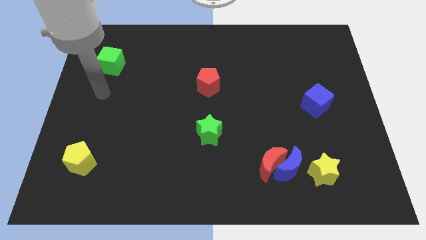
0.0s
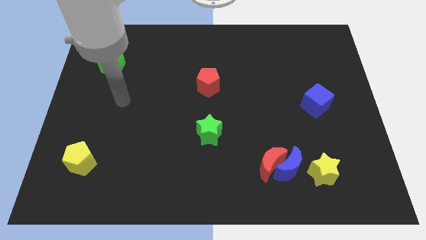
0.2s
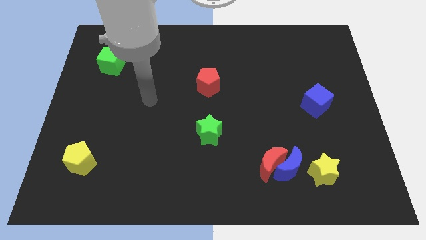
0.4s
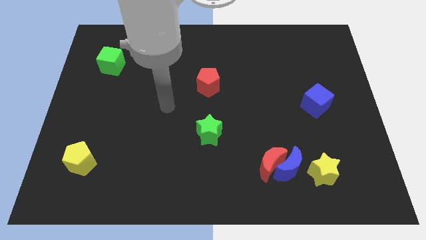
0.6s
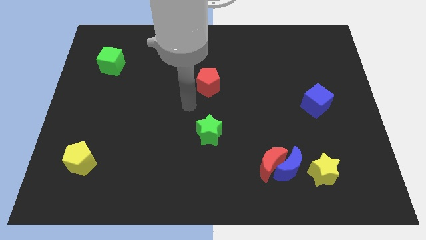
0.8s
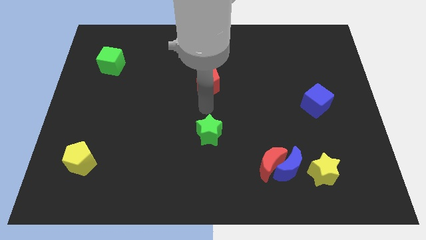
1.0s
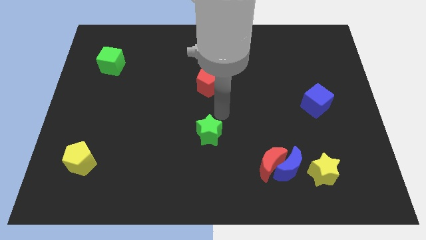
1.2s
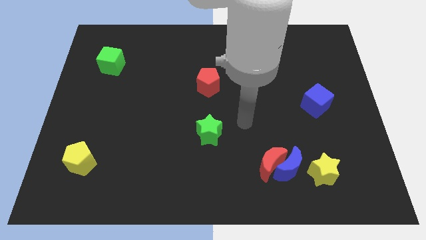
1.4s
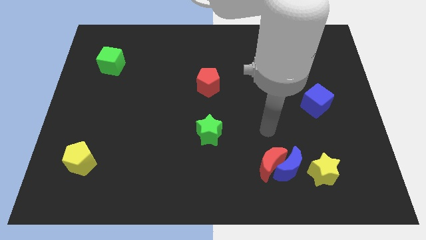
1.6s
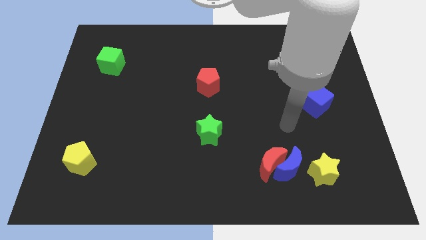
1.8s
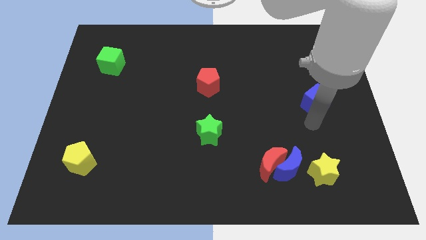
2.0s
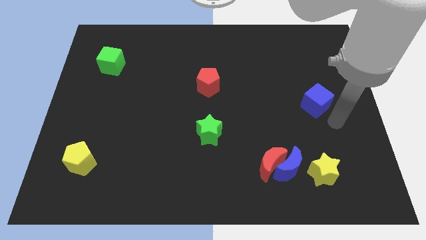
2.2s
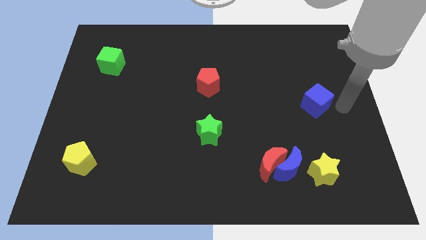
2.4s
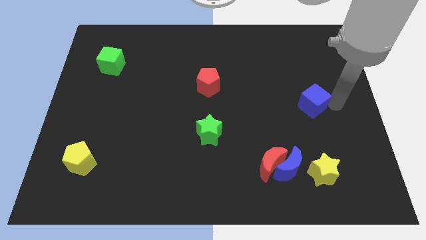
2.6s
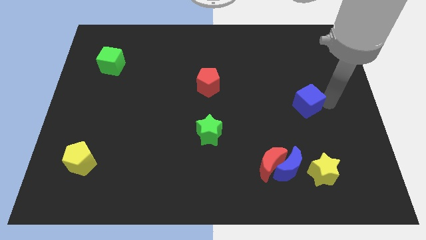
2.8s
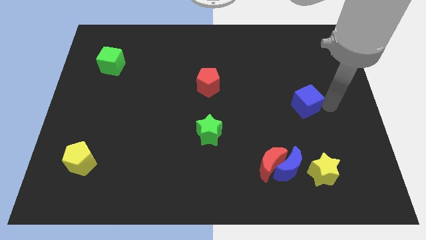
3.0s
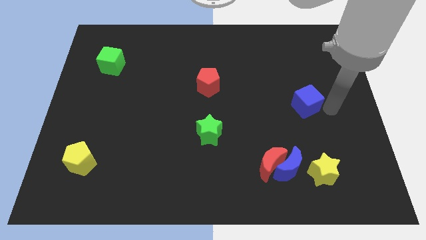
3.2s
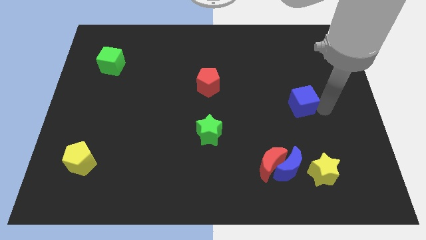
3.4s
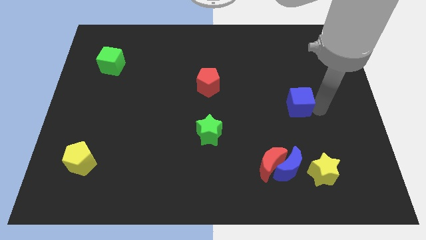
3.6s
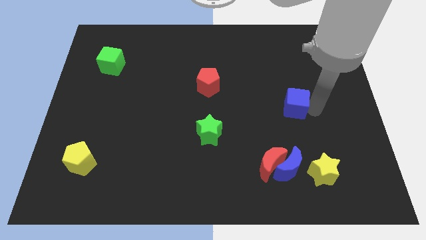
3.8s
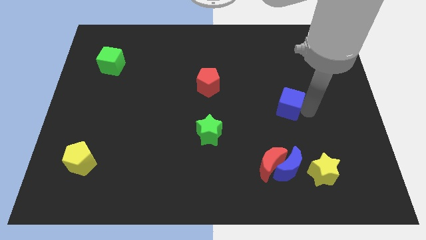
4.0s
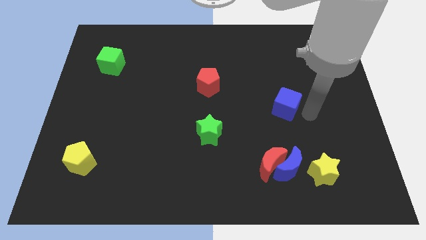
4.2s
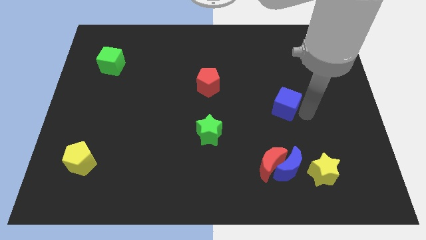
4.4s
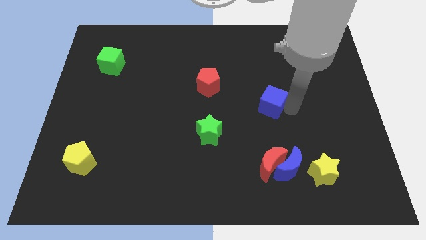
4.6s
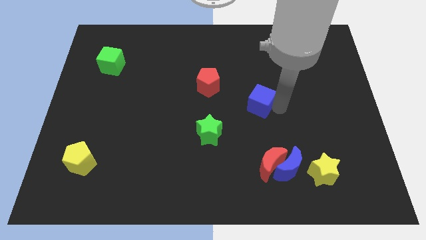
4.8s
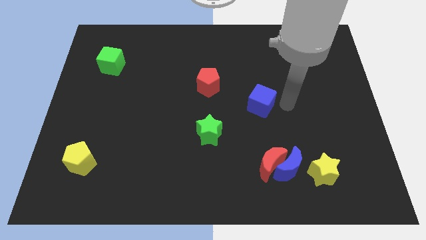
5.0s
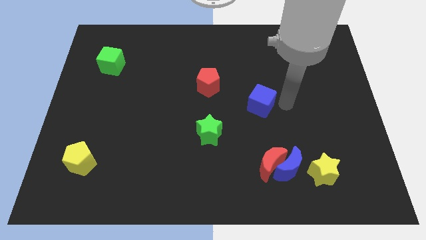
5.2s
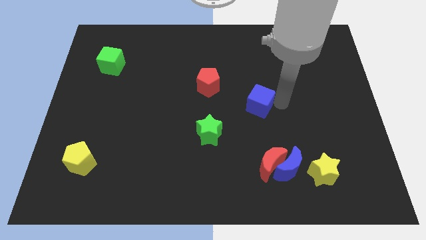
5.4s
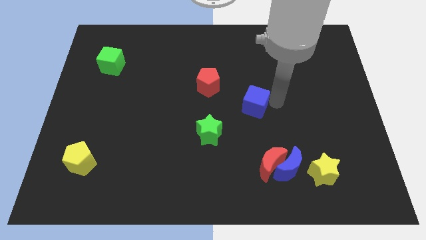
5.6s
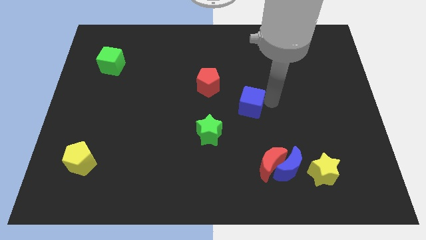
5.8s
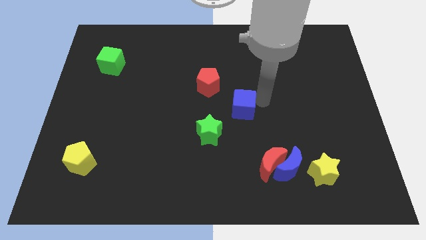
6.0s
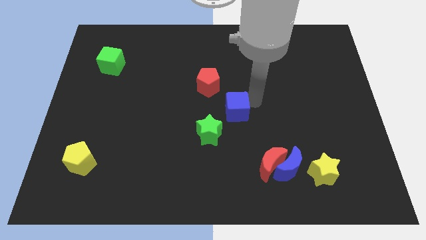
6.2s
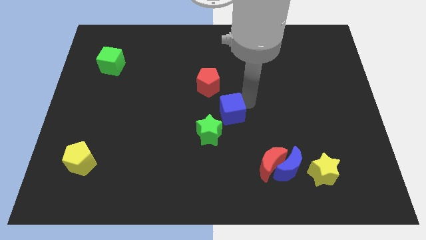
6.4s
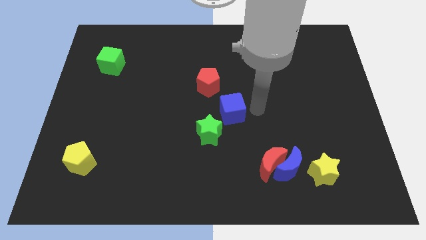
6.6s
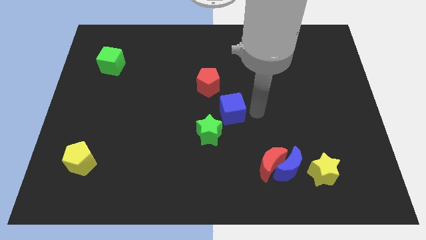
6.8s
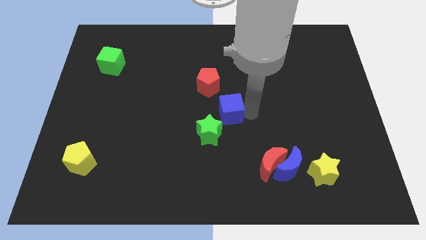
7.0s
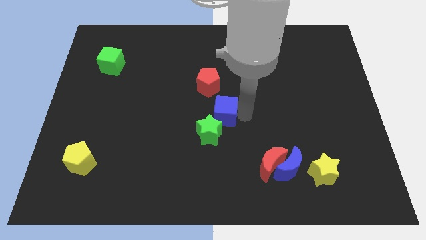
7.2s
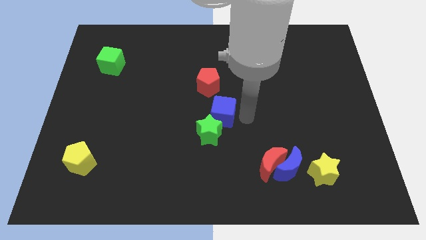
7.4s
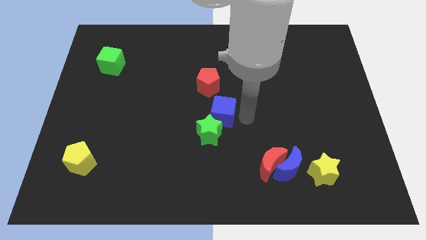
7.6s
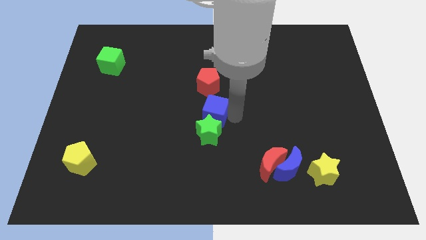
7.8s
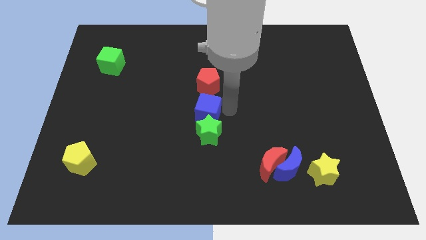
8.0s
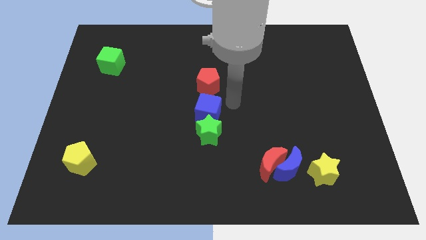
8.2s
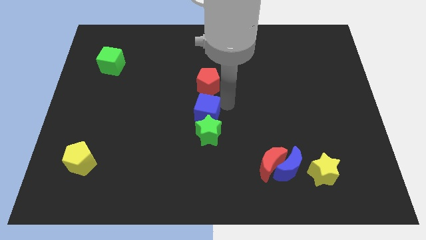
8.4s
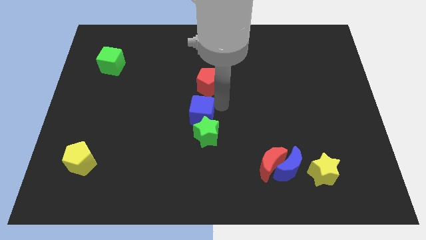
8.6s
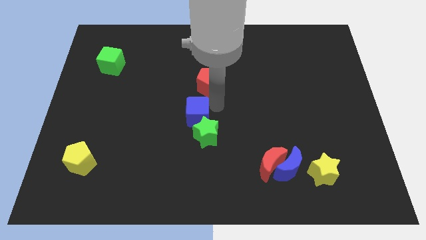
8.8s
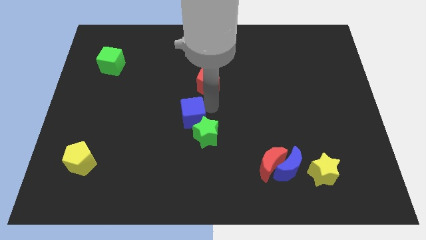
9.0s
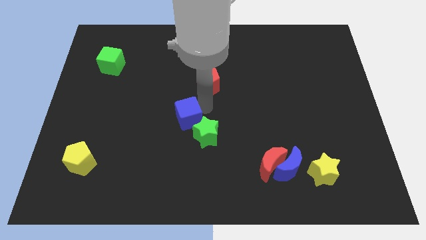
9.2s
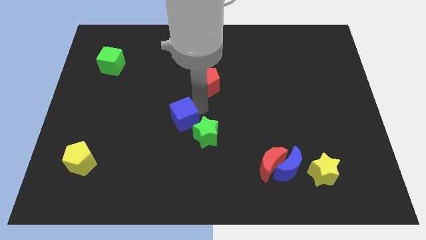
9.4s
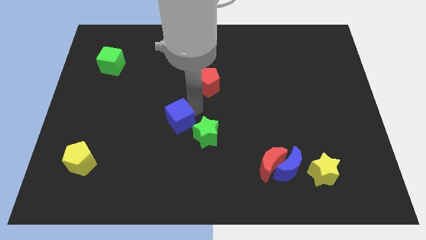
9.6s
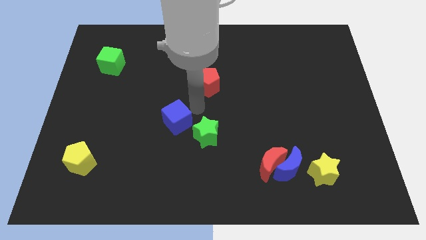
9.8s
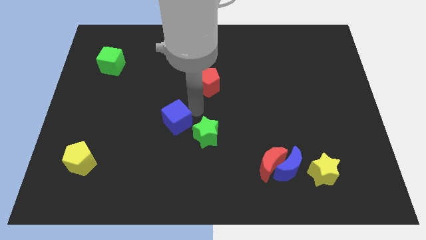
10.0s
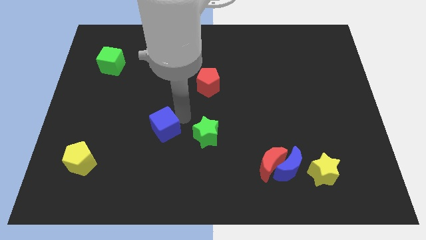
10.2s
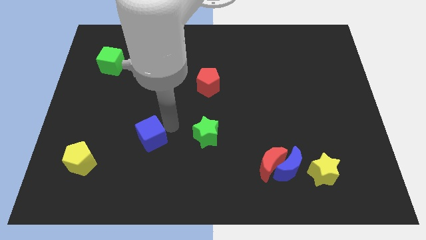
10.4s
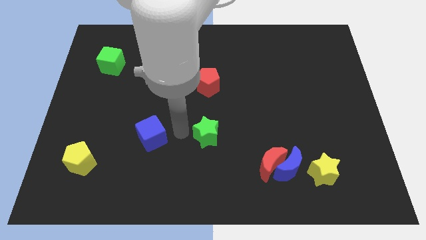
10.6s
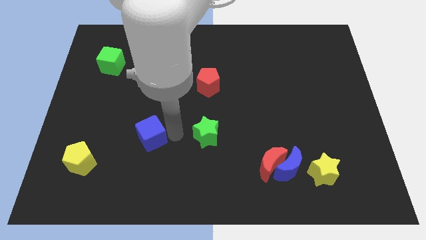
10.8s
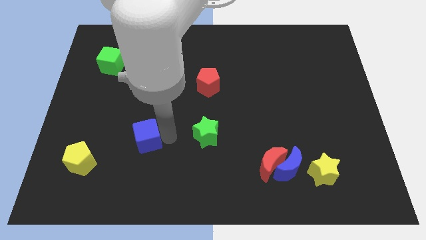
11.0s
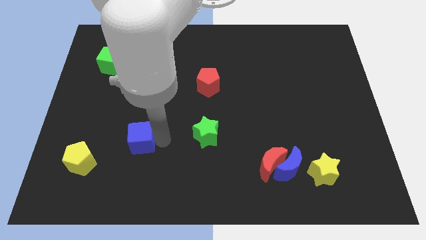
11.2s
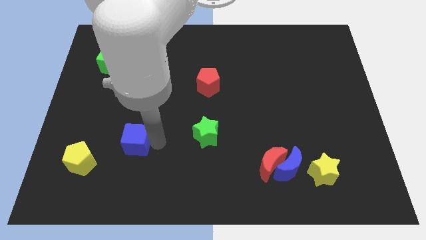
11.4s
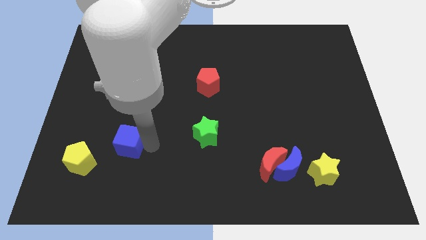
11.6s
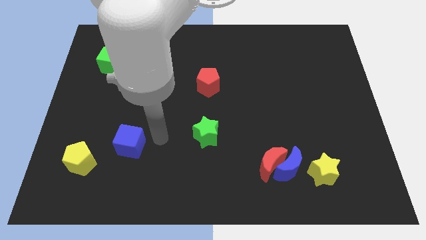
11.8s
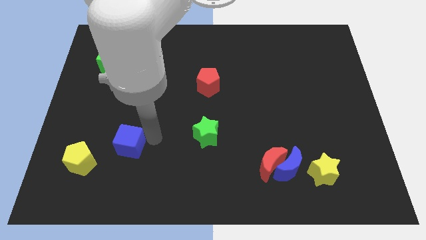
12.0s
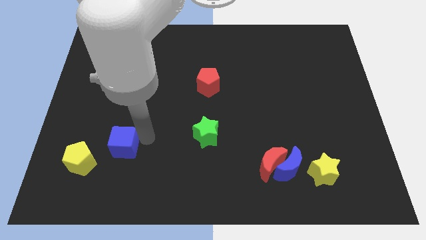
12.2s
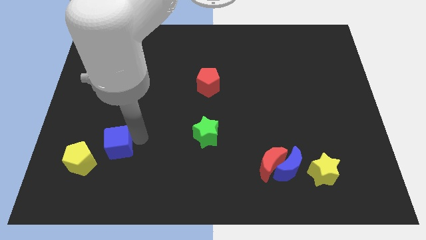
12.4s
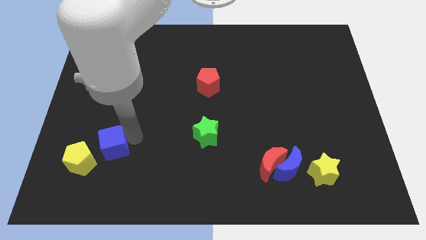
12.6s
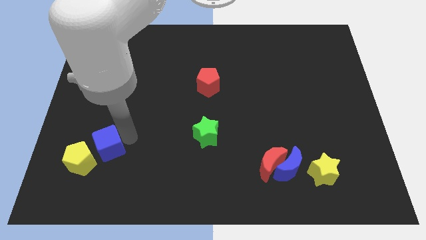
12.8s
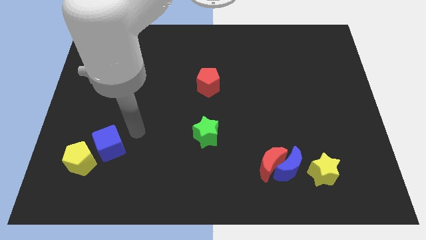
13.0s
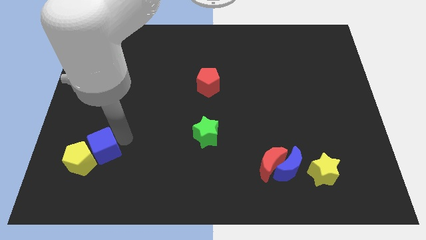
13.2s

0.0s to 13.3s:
move the blue cube next to the yellow pentagon
